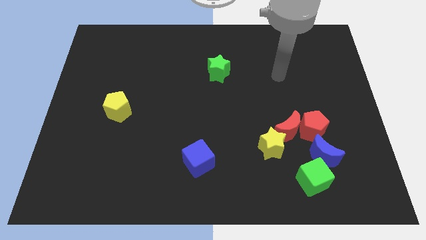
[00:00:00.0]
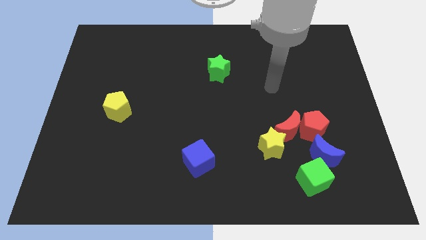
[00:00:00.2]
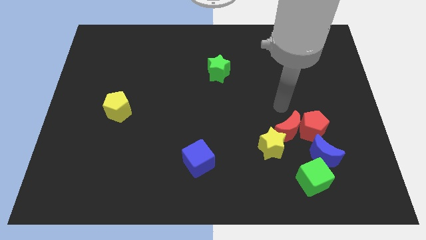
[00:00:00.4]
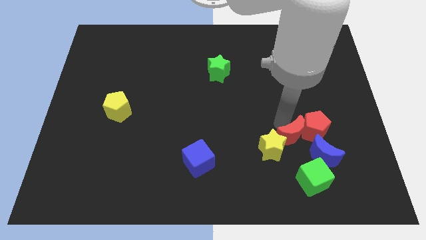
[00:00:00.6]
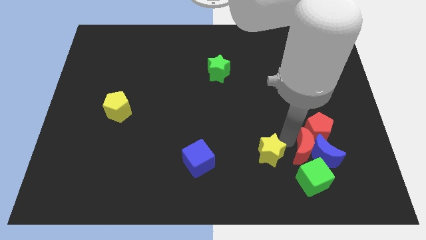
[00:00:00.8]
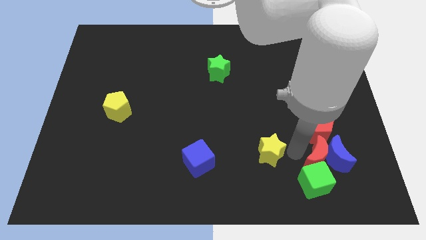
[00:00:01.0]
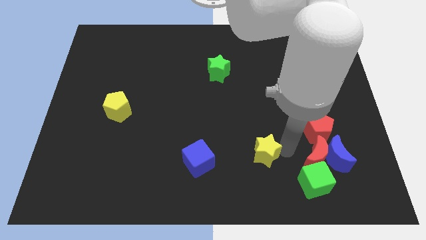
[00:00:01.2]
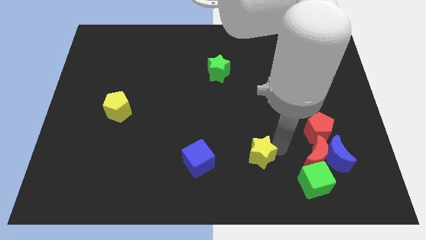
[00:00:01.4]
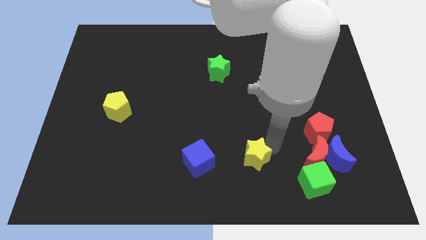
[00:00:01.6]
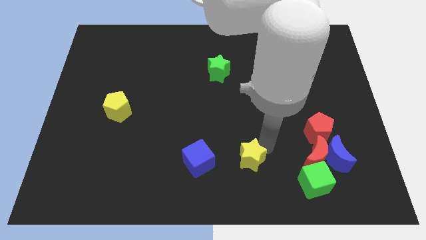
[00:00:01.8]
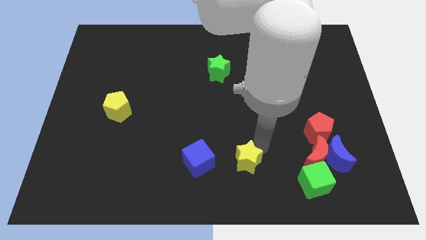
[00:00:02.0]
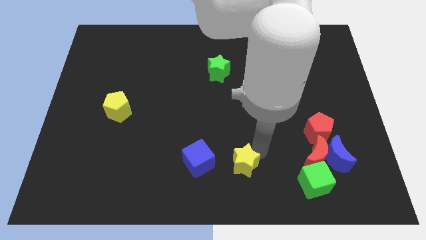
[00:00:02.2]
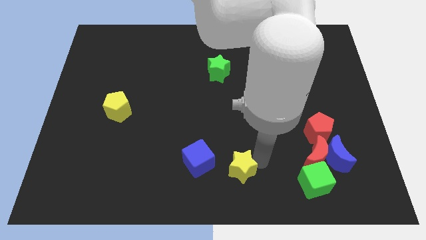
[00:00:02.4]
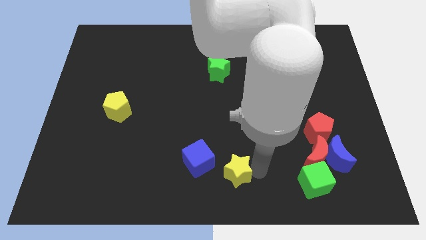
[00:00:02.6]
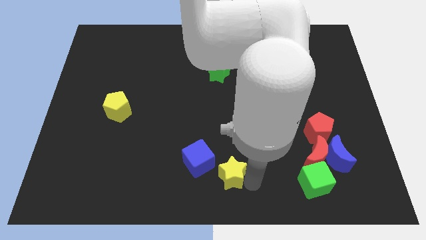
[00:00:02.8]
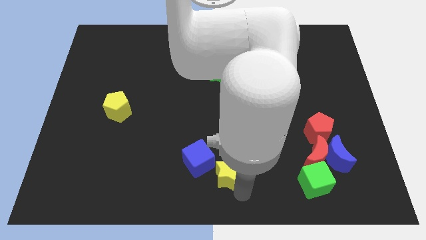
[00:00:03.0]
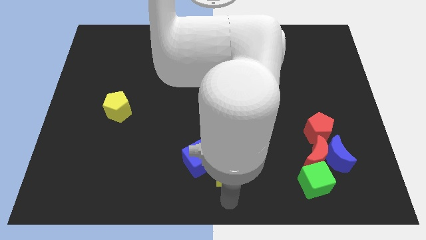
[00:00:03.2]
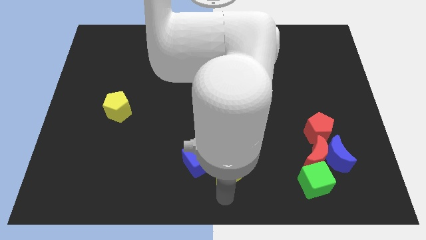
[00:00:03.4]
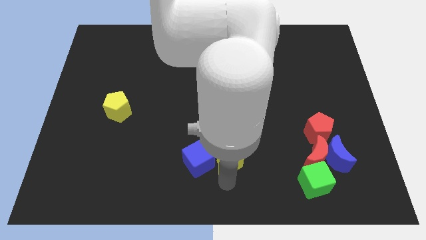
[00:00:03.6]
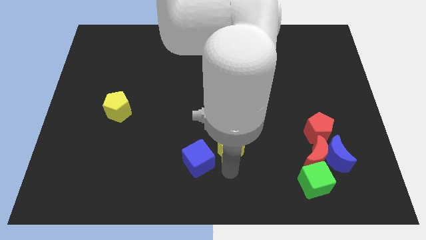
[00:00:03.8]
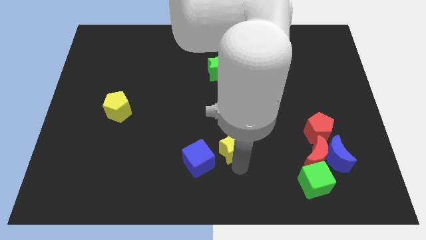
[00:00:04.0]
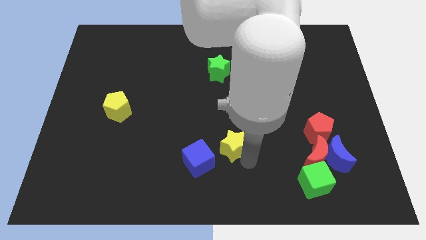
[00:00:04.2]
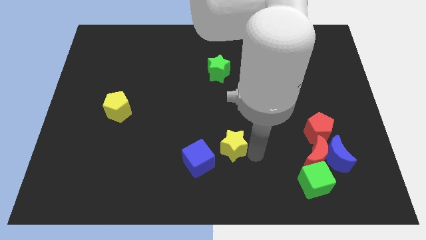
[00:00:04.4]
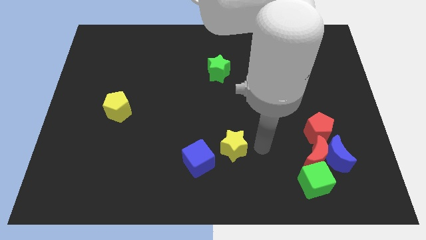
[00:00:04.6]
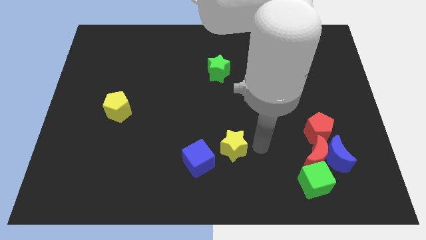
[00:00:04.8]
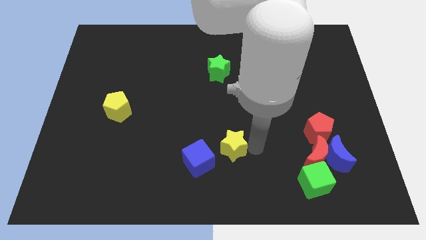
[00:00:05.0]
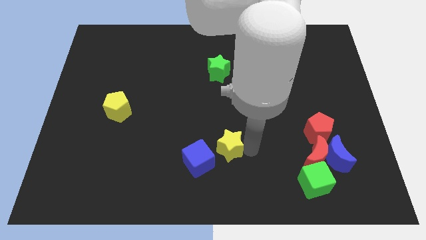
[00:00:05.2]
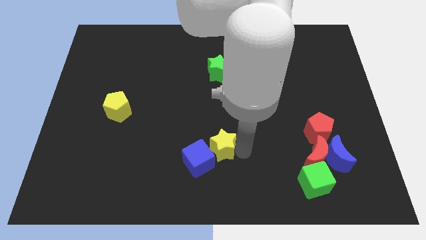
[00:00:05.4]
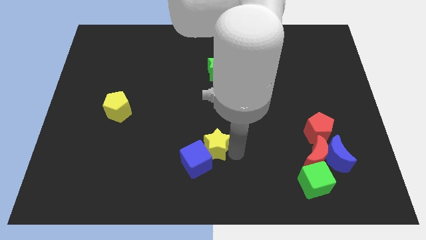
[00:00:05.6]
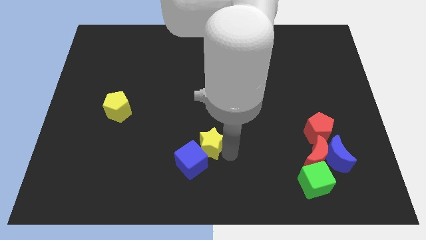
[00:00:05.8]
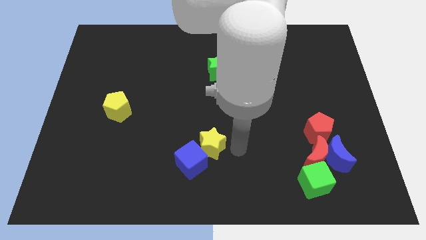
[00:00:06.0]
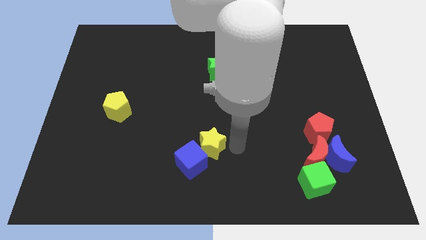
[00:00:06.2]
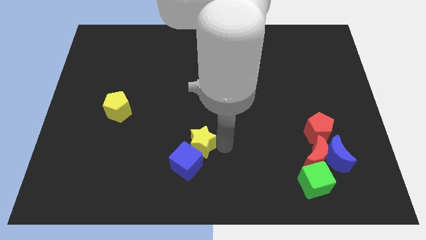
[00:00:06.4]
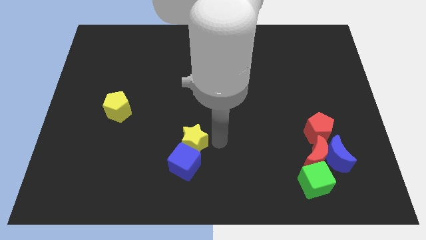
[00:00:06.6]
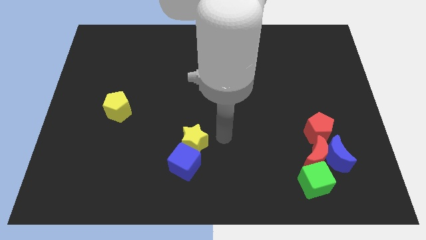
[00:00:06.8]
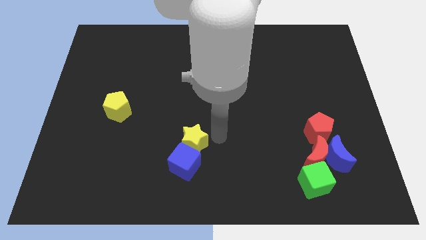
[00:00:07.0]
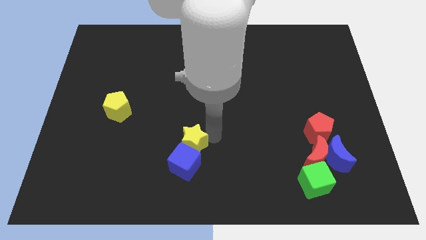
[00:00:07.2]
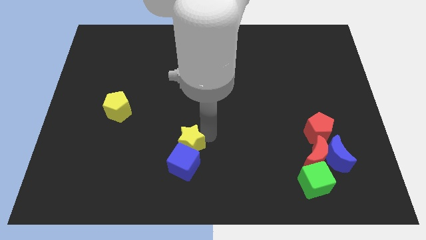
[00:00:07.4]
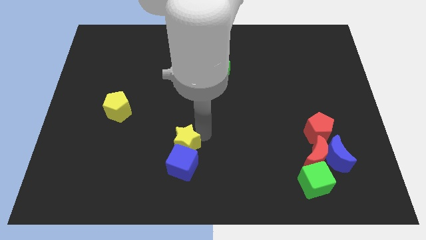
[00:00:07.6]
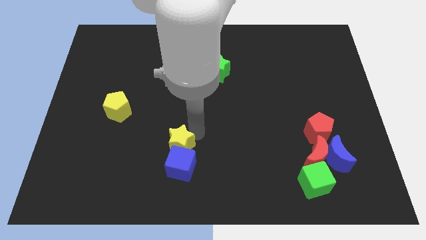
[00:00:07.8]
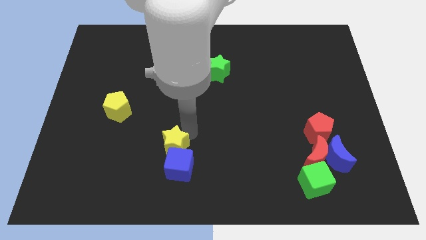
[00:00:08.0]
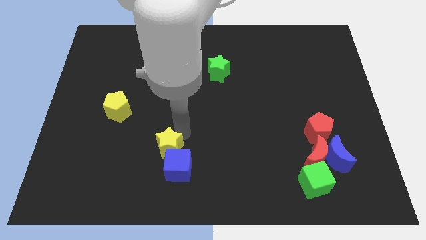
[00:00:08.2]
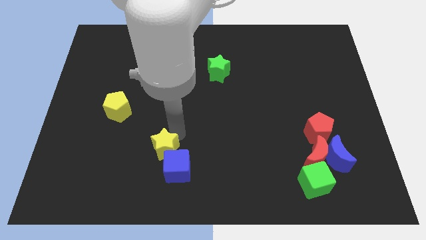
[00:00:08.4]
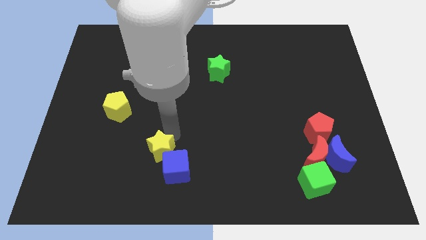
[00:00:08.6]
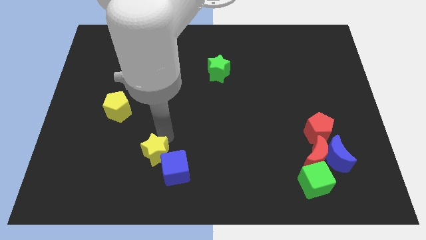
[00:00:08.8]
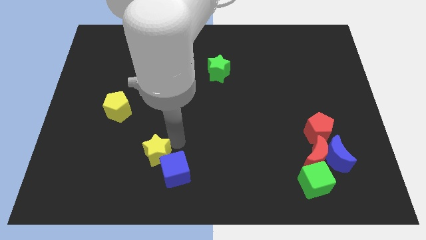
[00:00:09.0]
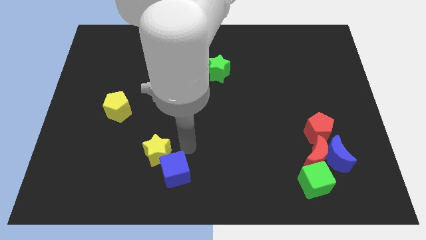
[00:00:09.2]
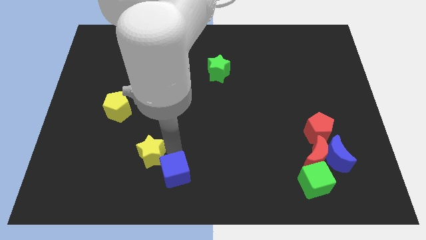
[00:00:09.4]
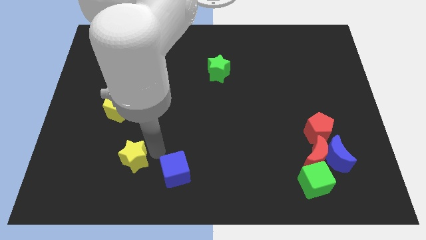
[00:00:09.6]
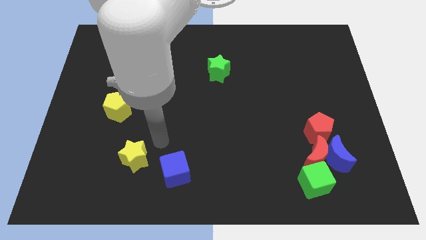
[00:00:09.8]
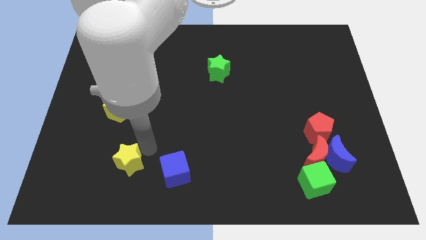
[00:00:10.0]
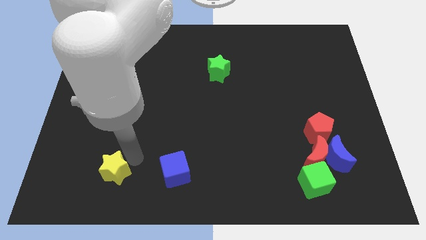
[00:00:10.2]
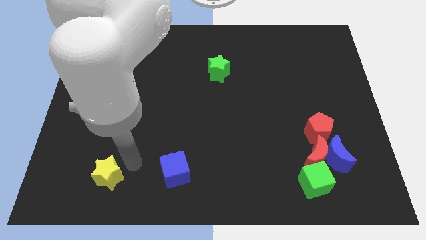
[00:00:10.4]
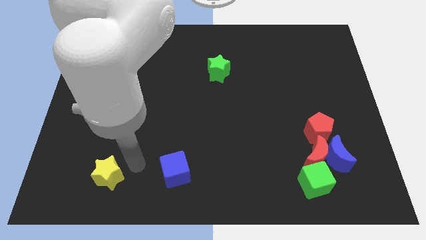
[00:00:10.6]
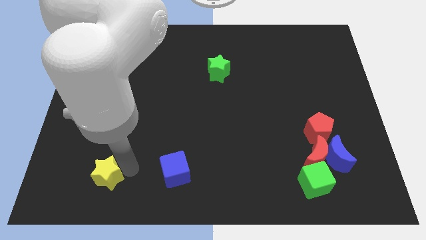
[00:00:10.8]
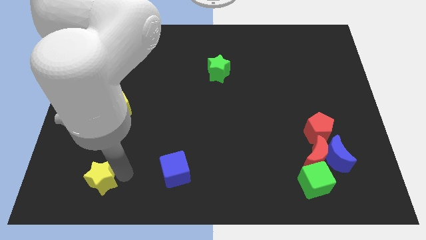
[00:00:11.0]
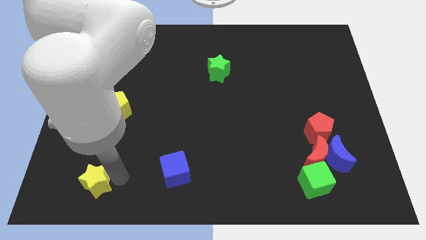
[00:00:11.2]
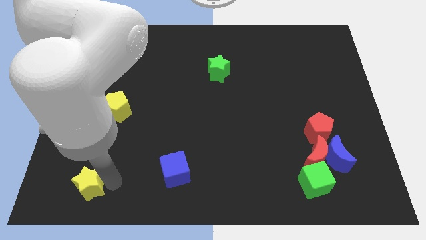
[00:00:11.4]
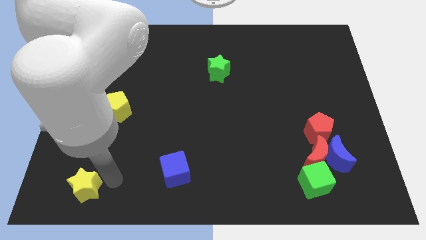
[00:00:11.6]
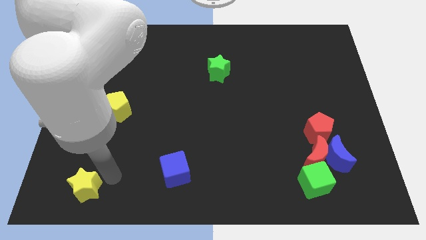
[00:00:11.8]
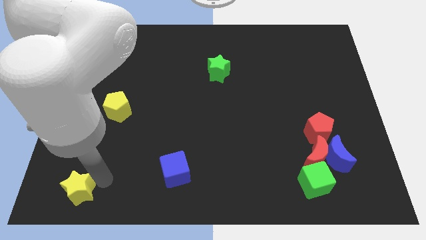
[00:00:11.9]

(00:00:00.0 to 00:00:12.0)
push the yellow star to the bottom left
